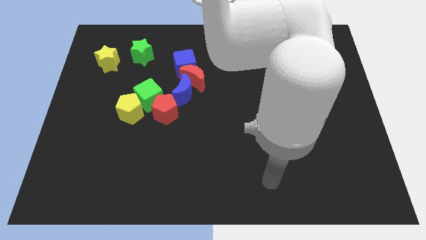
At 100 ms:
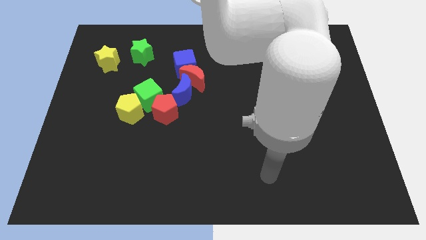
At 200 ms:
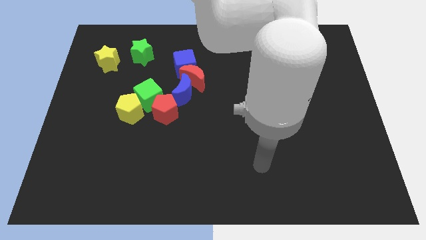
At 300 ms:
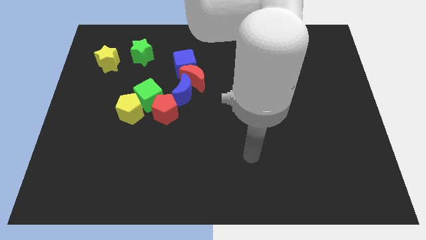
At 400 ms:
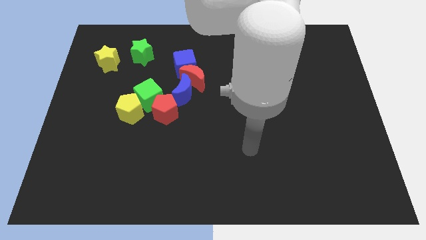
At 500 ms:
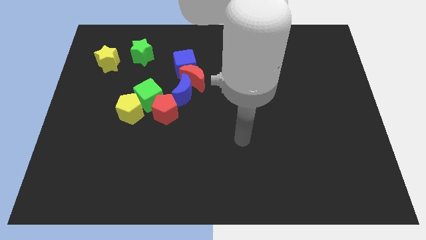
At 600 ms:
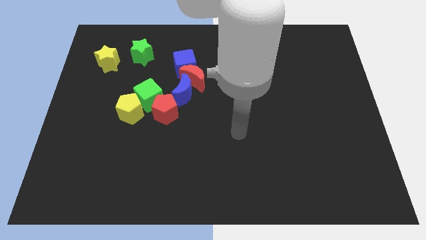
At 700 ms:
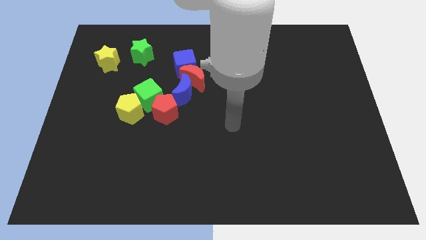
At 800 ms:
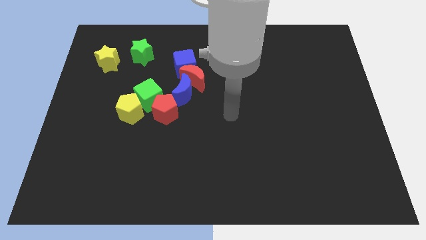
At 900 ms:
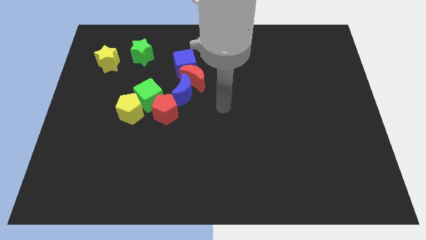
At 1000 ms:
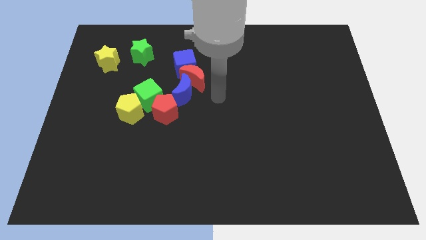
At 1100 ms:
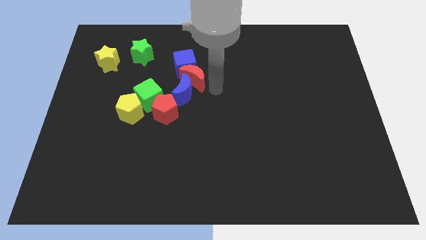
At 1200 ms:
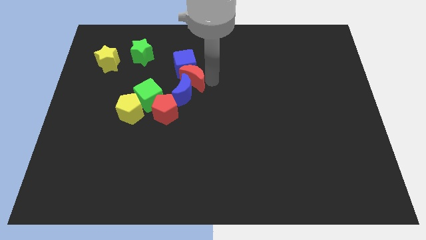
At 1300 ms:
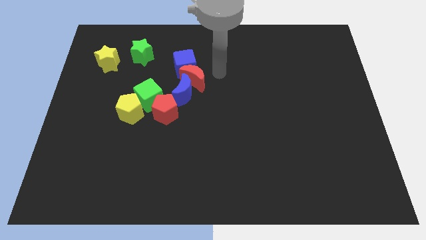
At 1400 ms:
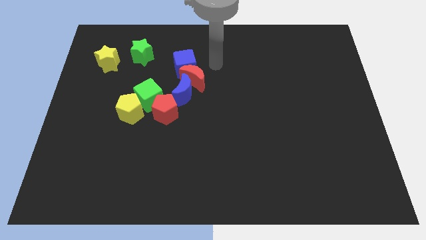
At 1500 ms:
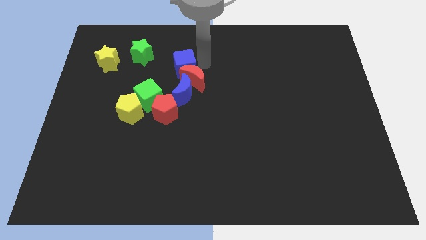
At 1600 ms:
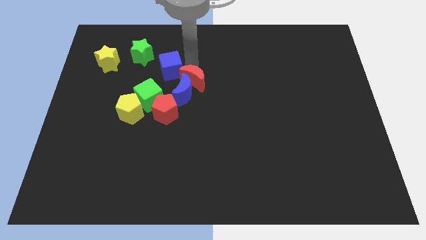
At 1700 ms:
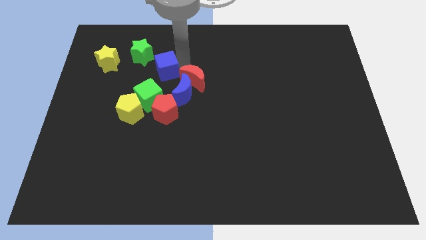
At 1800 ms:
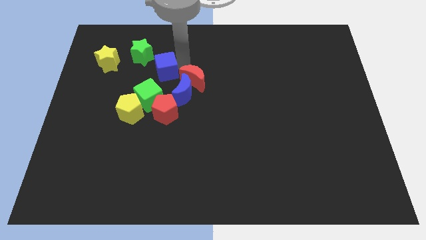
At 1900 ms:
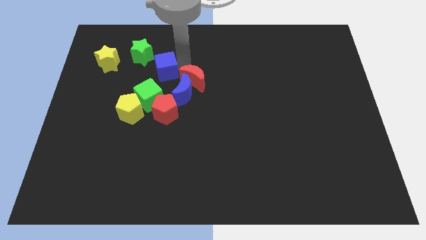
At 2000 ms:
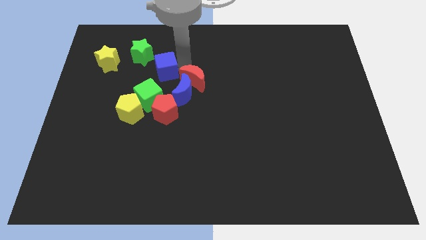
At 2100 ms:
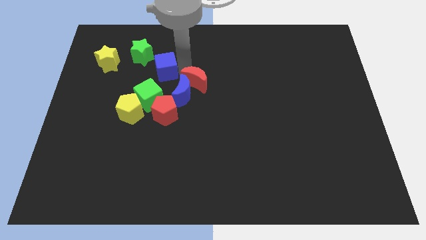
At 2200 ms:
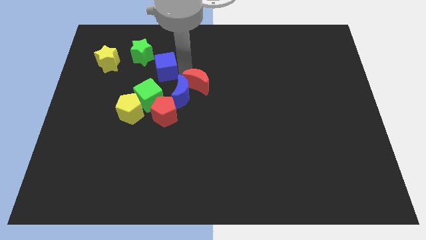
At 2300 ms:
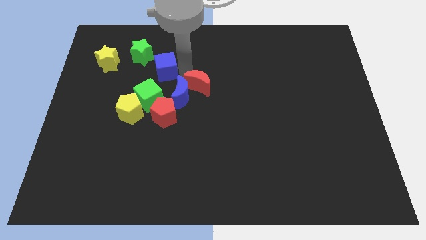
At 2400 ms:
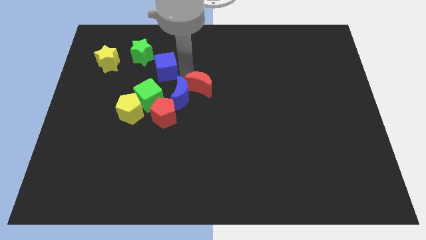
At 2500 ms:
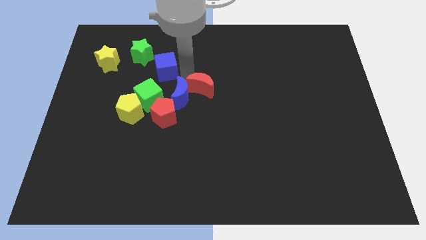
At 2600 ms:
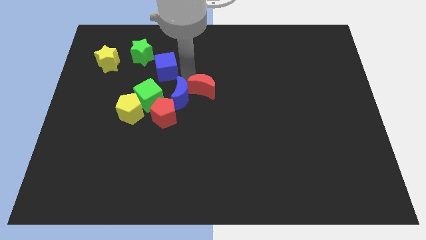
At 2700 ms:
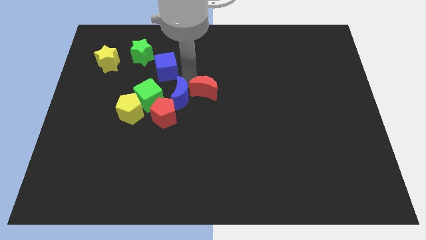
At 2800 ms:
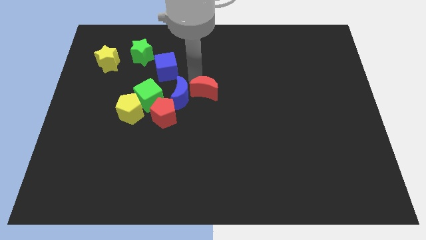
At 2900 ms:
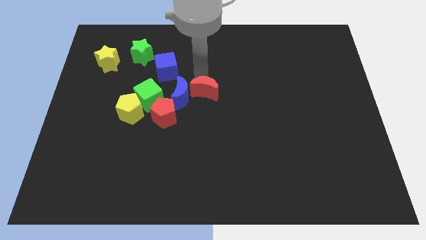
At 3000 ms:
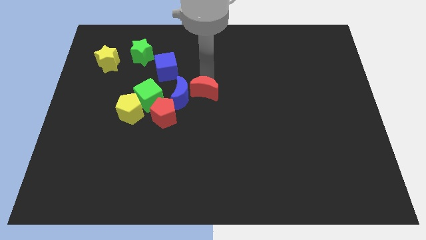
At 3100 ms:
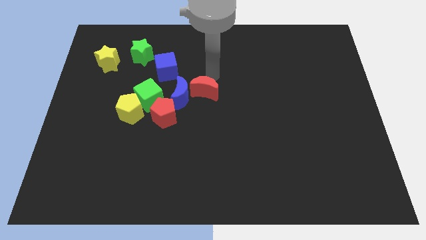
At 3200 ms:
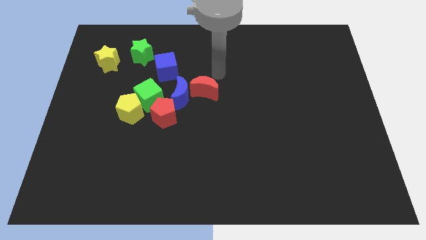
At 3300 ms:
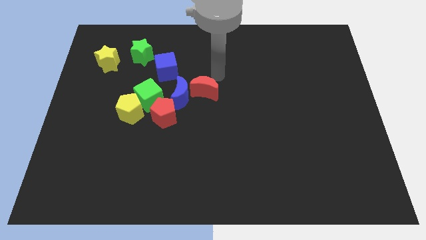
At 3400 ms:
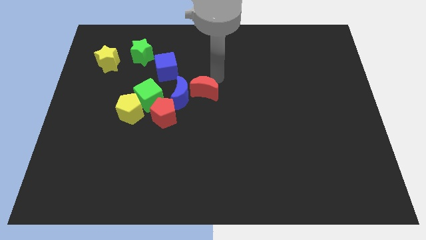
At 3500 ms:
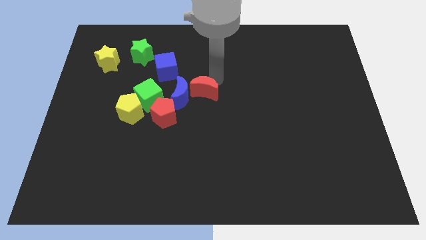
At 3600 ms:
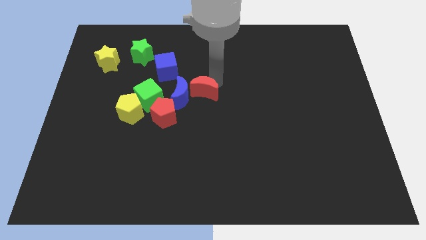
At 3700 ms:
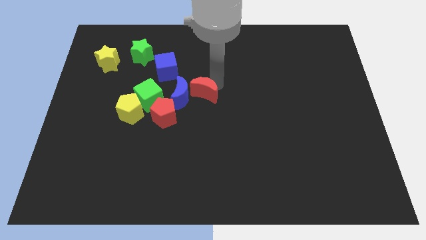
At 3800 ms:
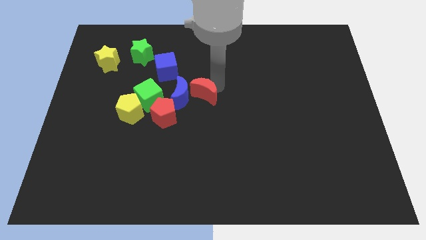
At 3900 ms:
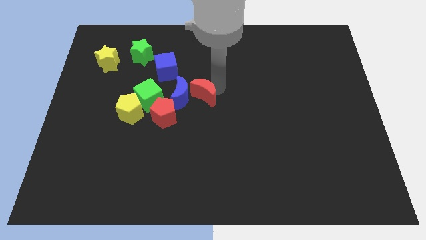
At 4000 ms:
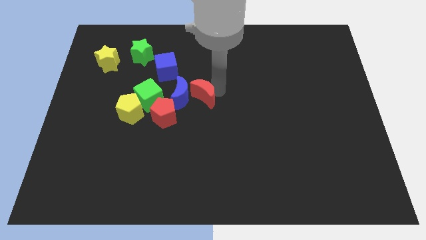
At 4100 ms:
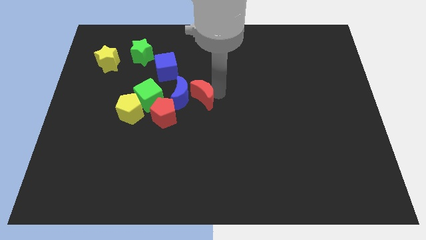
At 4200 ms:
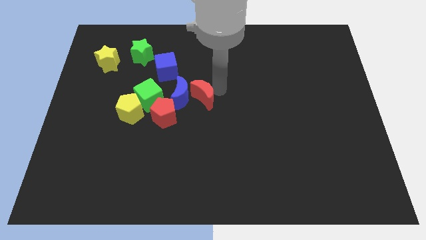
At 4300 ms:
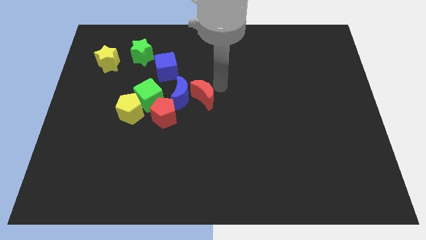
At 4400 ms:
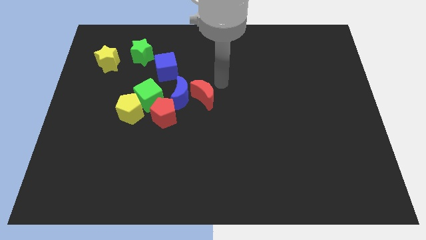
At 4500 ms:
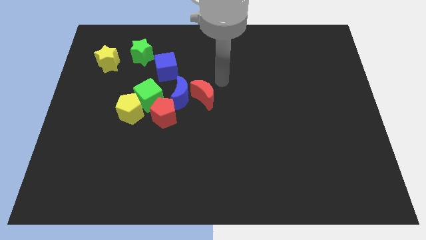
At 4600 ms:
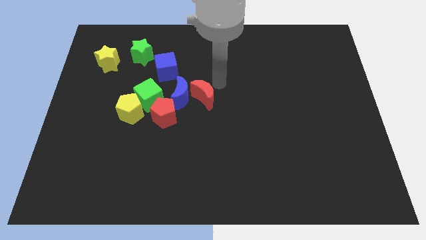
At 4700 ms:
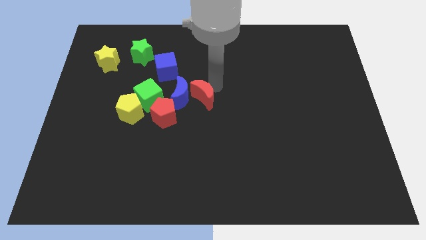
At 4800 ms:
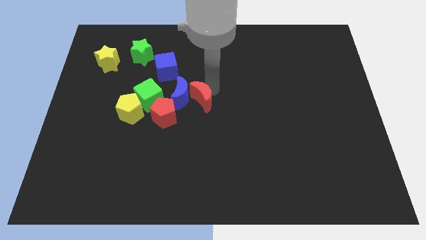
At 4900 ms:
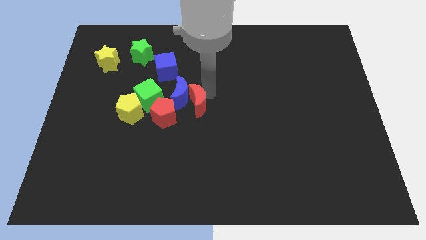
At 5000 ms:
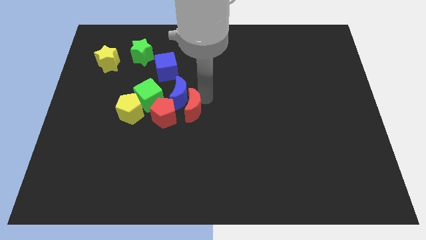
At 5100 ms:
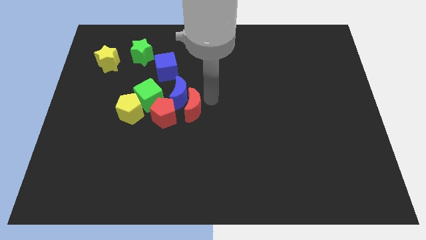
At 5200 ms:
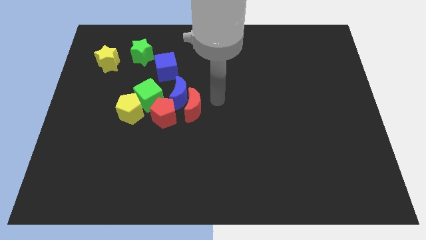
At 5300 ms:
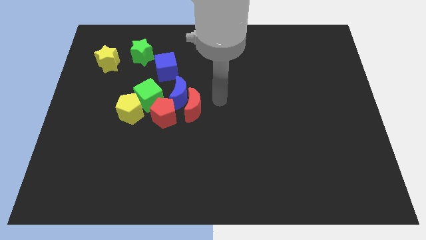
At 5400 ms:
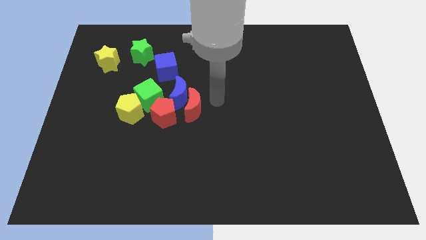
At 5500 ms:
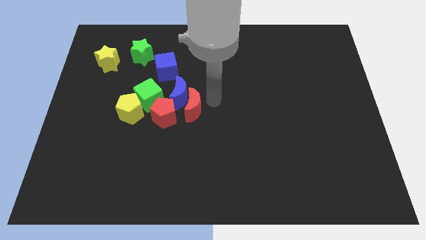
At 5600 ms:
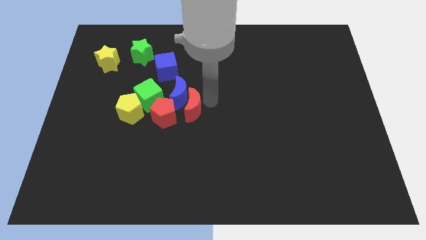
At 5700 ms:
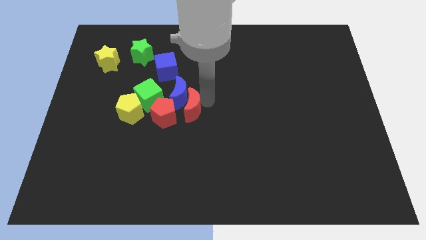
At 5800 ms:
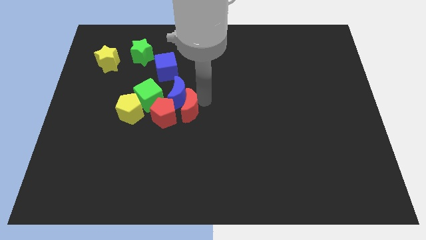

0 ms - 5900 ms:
push the red moon to the bottom right side of the green cube

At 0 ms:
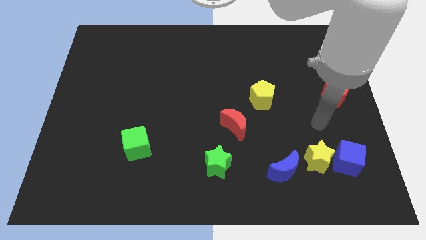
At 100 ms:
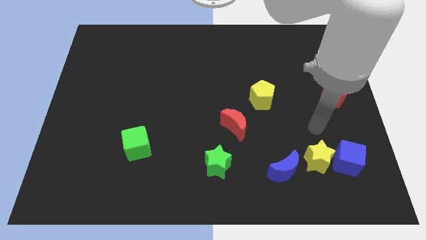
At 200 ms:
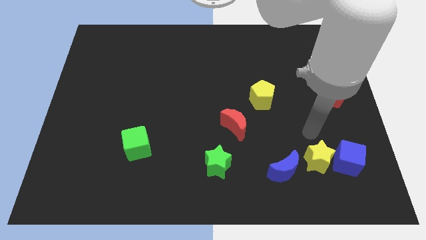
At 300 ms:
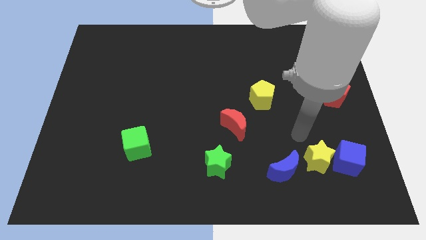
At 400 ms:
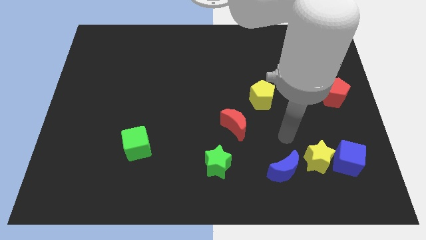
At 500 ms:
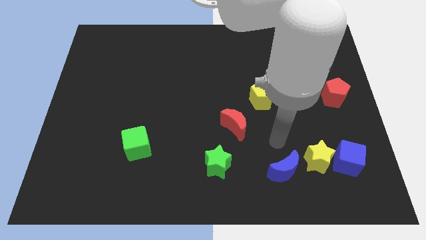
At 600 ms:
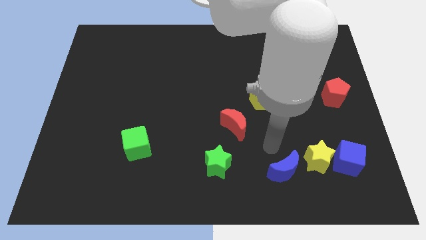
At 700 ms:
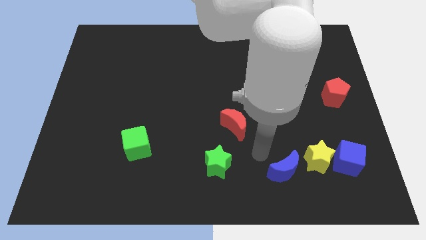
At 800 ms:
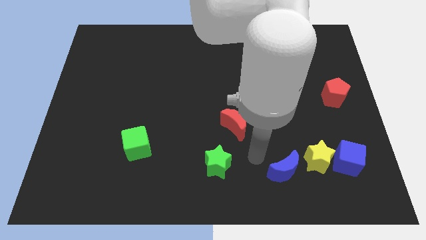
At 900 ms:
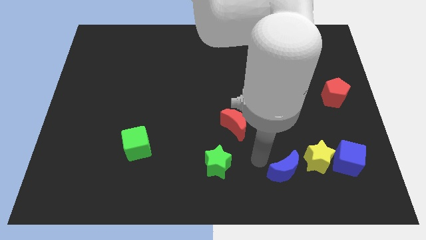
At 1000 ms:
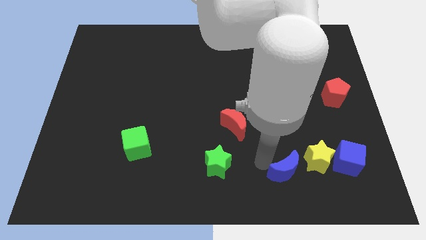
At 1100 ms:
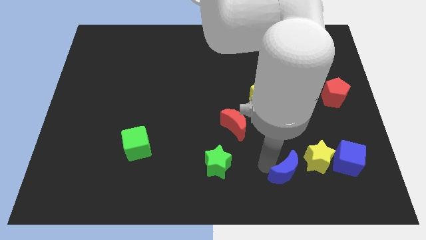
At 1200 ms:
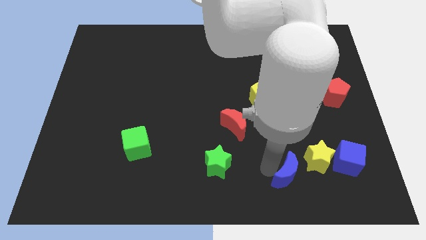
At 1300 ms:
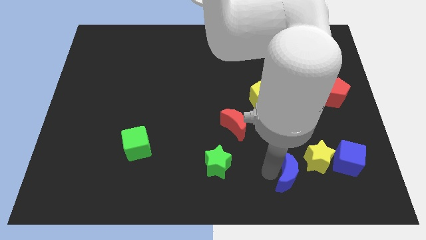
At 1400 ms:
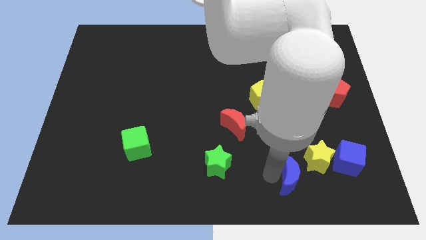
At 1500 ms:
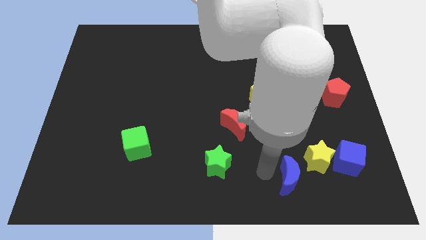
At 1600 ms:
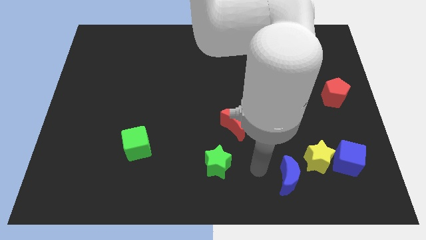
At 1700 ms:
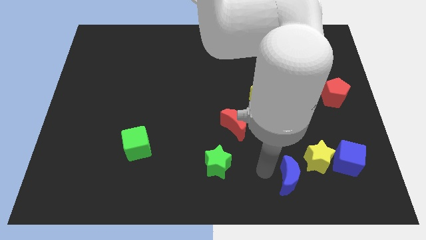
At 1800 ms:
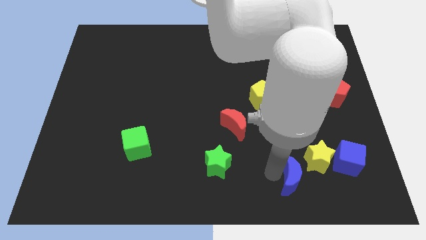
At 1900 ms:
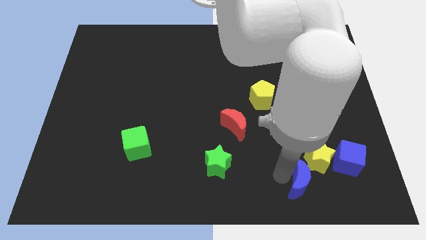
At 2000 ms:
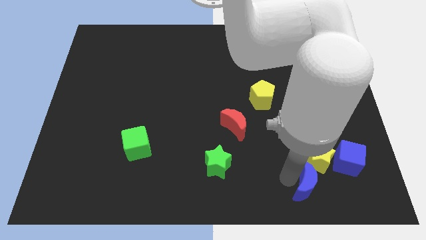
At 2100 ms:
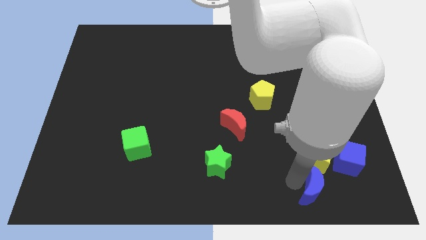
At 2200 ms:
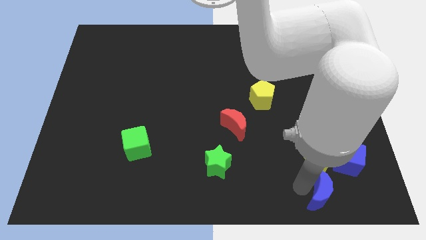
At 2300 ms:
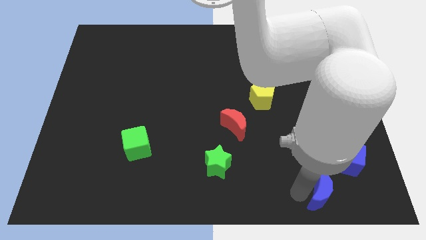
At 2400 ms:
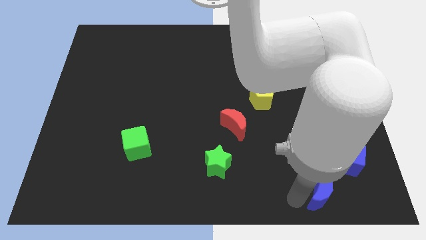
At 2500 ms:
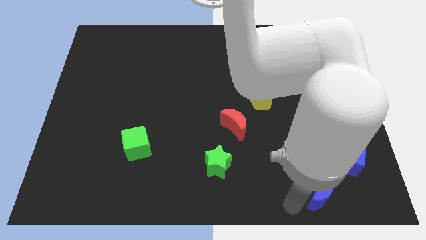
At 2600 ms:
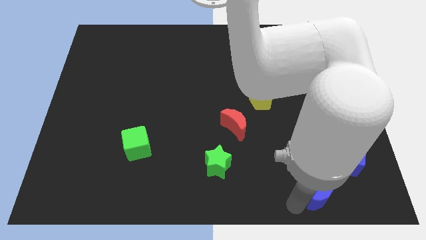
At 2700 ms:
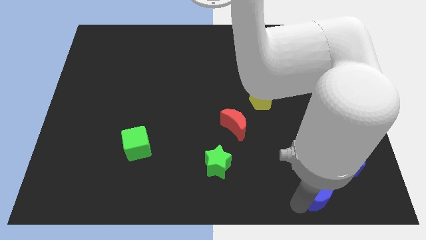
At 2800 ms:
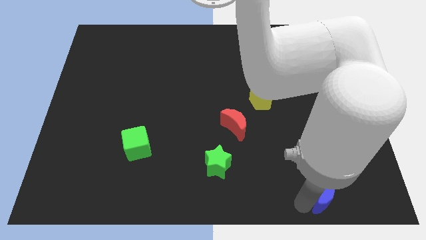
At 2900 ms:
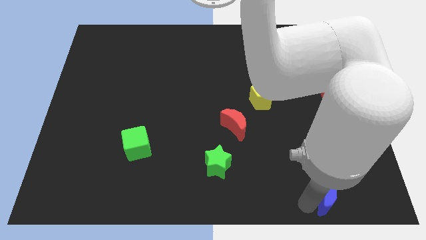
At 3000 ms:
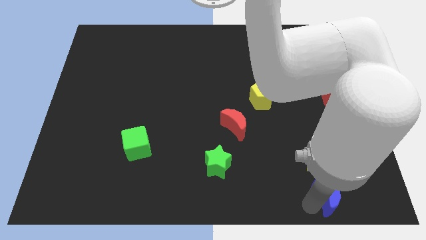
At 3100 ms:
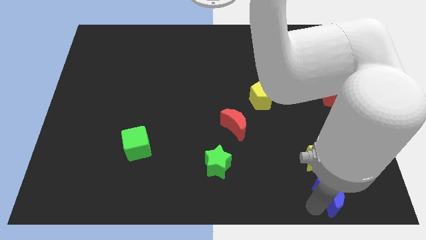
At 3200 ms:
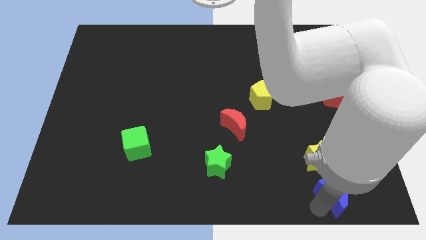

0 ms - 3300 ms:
slide the blue moon diagonally down and to the right of the yellow star
